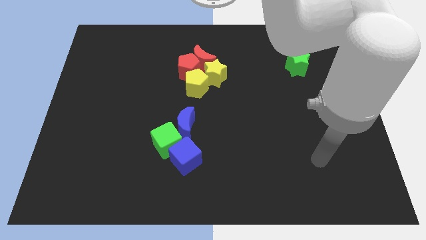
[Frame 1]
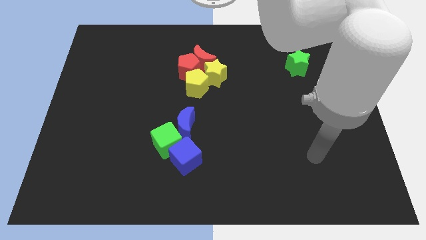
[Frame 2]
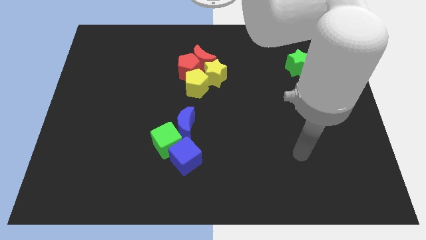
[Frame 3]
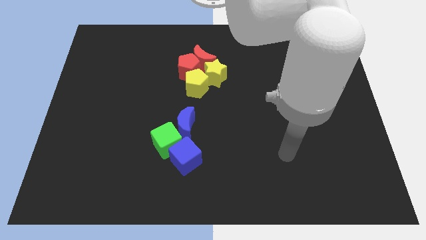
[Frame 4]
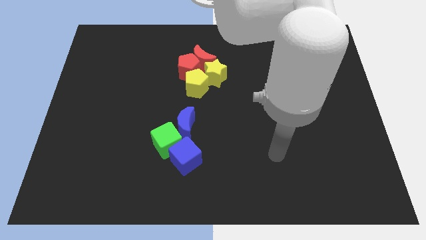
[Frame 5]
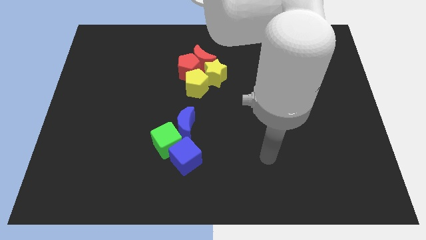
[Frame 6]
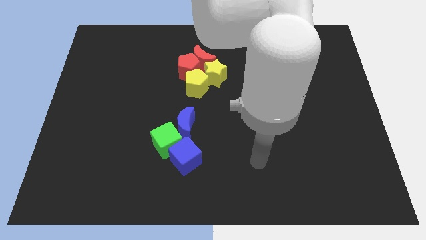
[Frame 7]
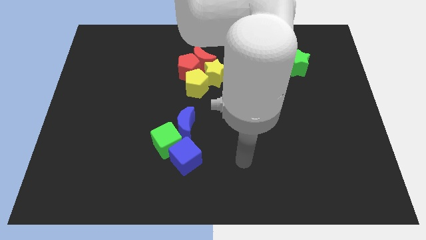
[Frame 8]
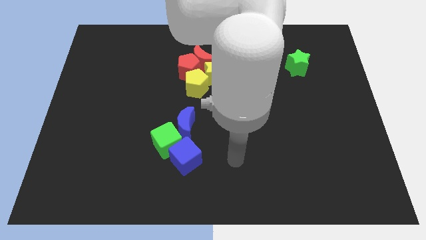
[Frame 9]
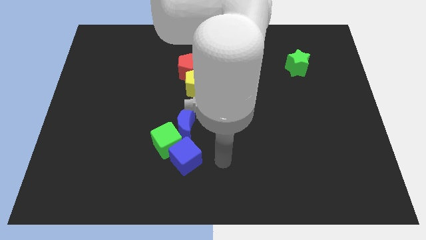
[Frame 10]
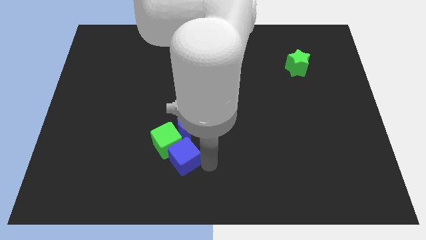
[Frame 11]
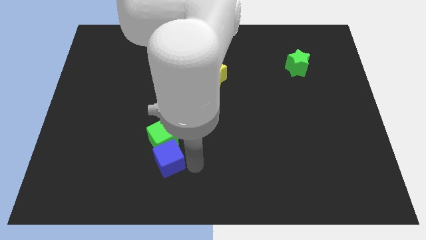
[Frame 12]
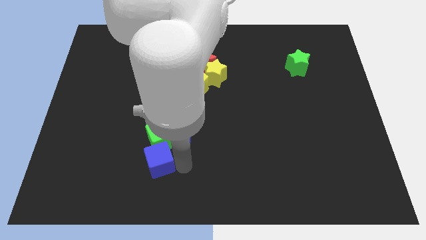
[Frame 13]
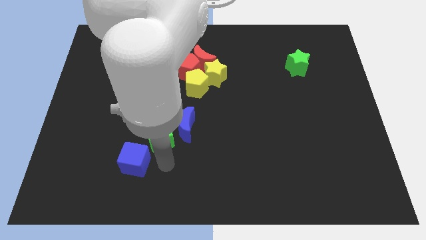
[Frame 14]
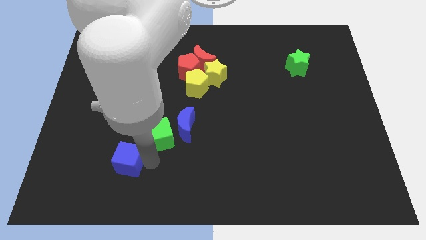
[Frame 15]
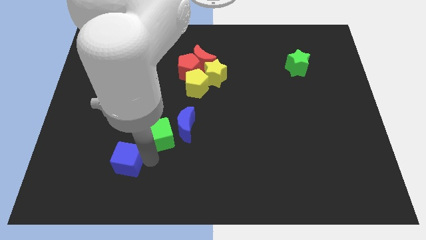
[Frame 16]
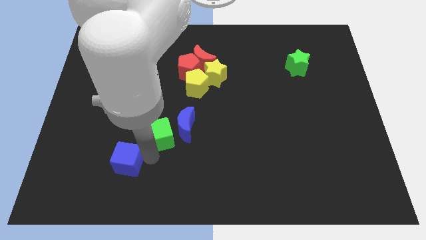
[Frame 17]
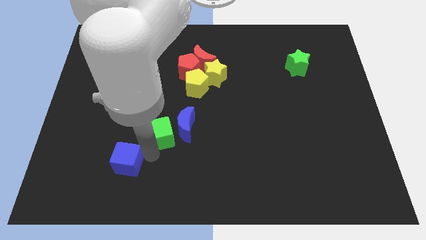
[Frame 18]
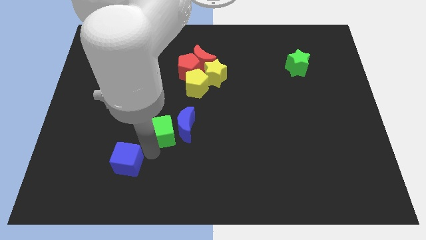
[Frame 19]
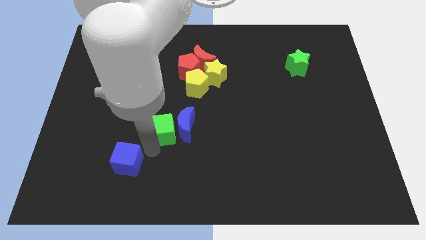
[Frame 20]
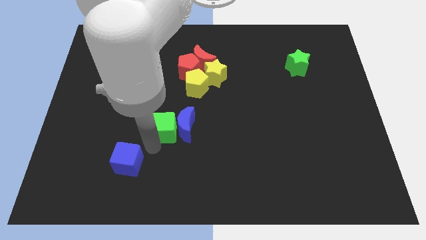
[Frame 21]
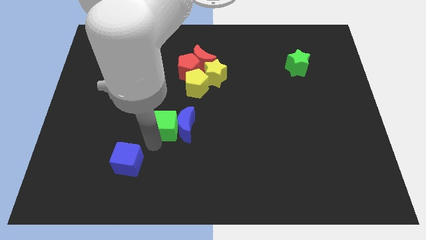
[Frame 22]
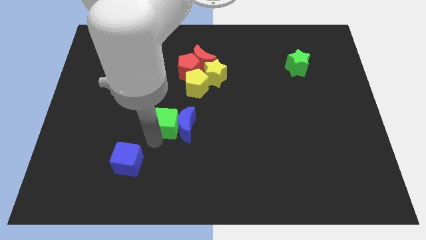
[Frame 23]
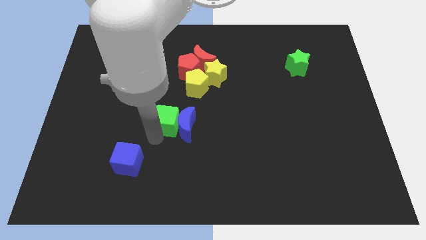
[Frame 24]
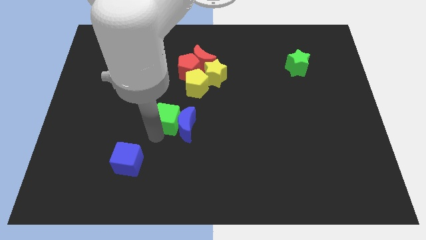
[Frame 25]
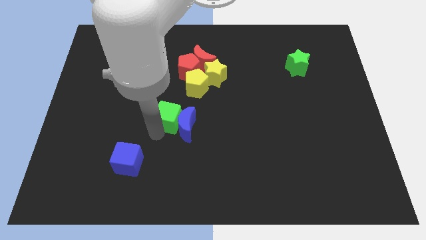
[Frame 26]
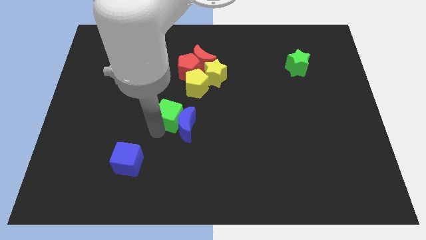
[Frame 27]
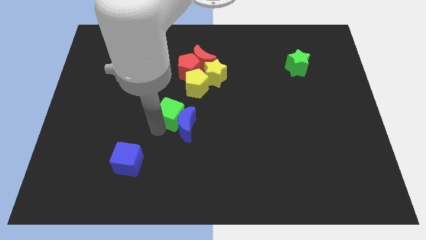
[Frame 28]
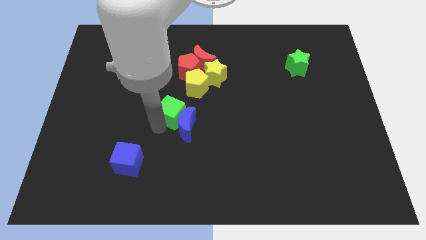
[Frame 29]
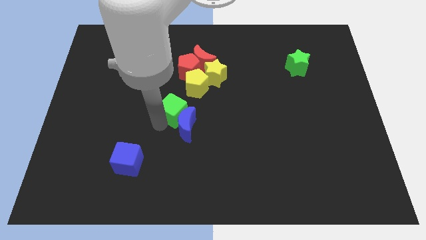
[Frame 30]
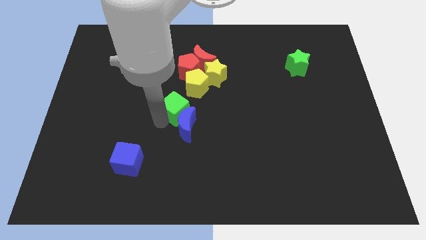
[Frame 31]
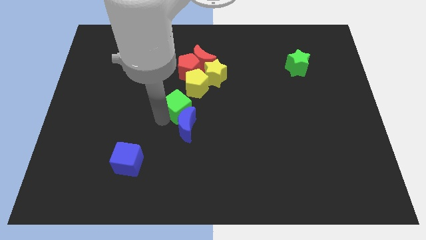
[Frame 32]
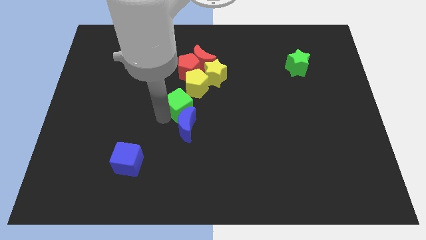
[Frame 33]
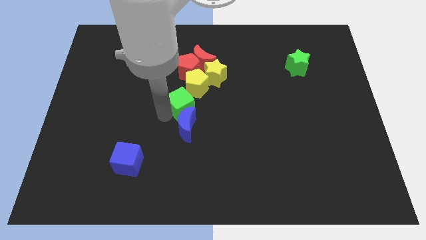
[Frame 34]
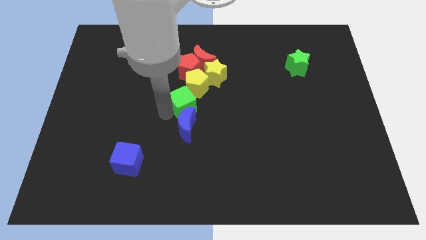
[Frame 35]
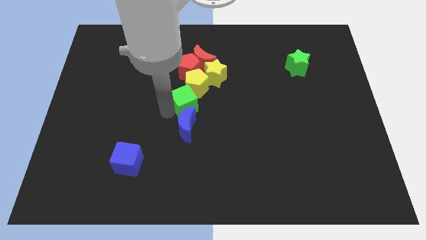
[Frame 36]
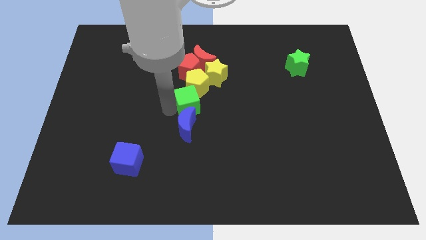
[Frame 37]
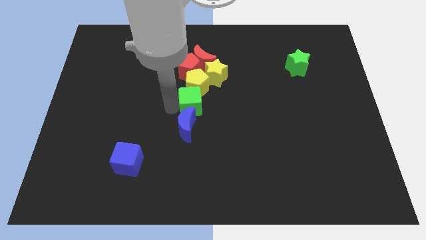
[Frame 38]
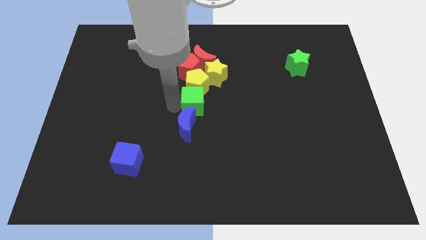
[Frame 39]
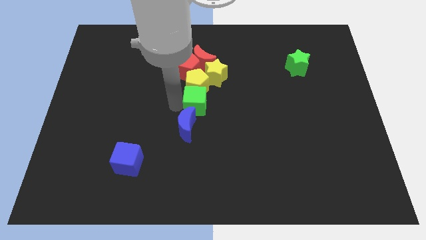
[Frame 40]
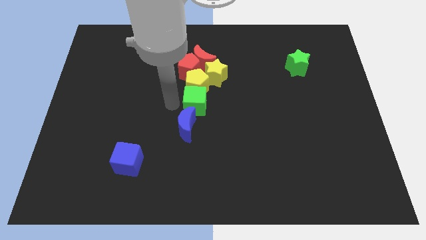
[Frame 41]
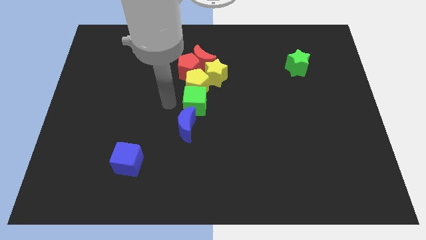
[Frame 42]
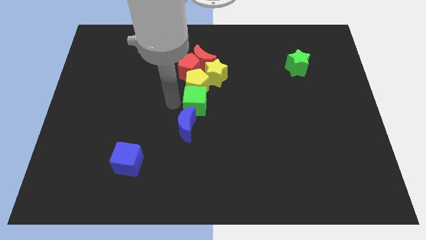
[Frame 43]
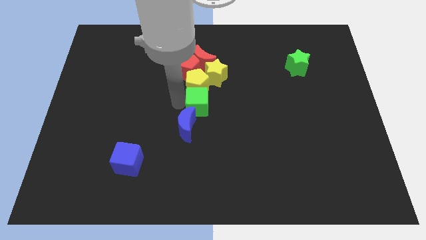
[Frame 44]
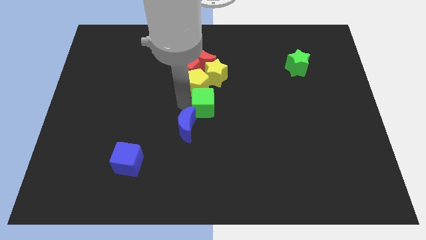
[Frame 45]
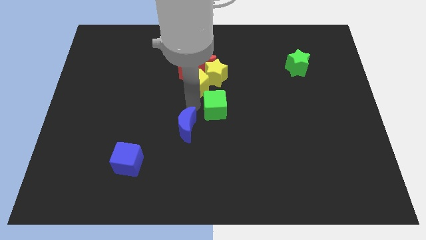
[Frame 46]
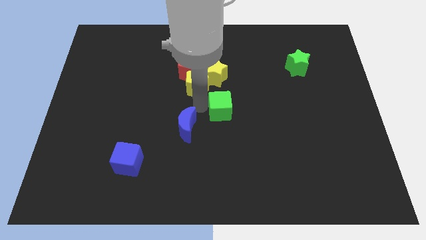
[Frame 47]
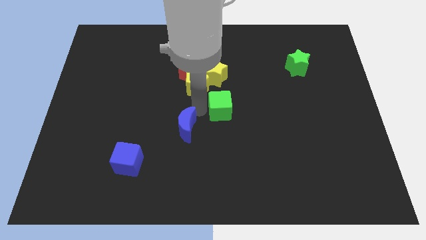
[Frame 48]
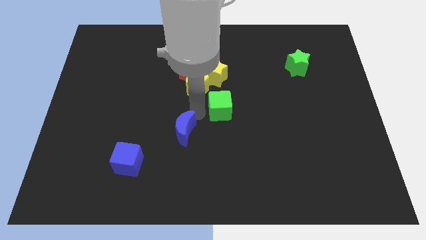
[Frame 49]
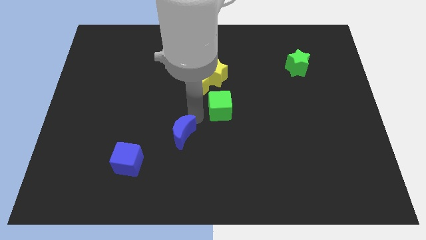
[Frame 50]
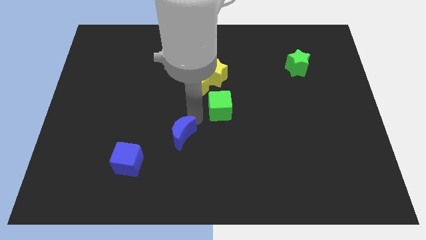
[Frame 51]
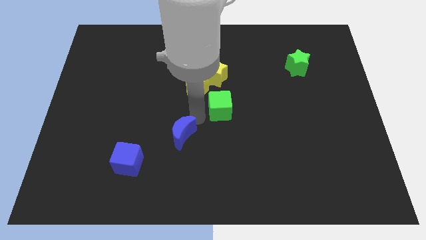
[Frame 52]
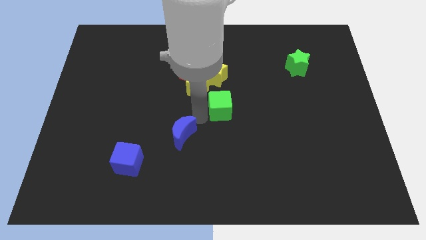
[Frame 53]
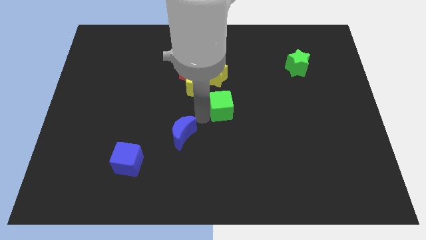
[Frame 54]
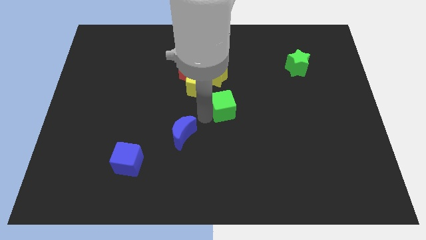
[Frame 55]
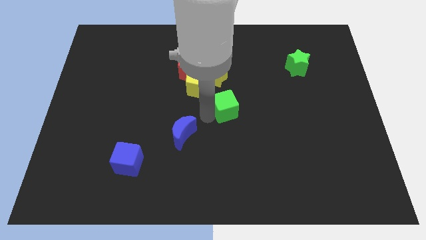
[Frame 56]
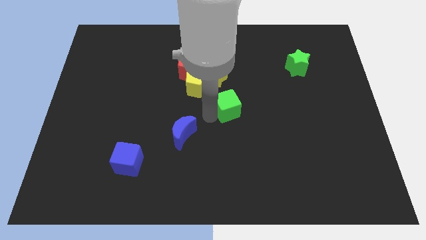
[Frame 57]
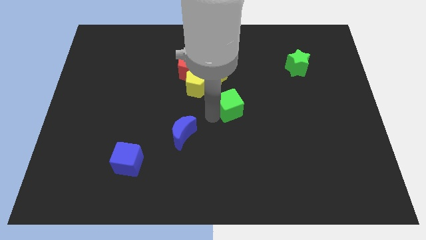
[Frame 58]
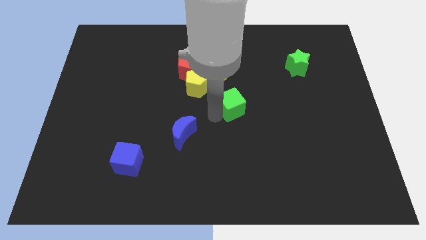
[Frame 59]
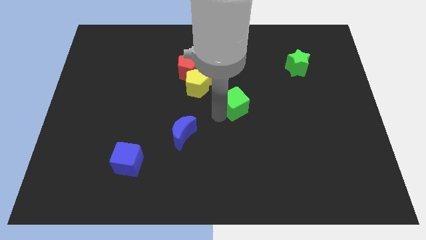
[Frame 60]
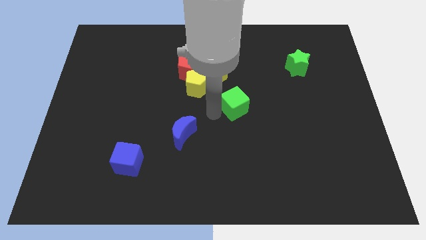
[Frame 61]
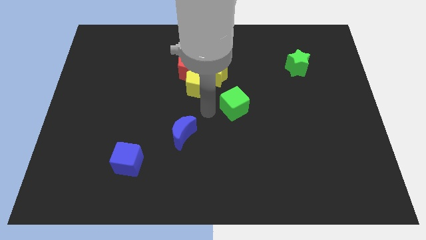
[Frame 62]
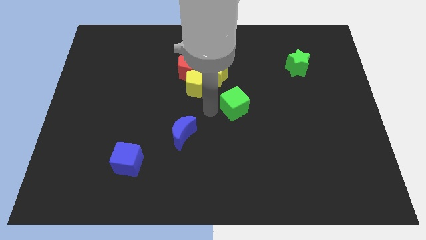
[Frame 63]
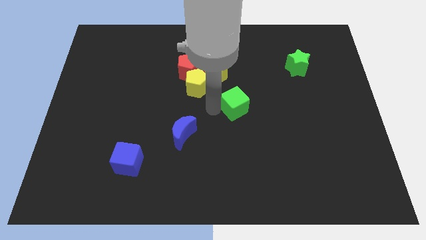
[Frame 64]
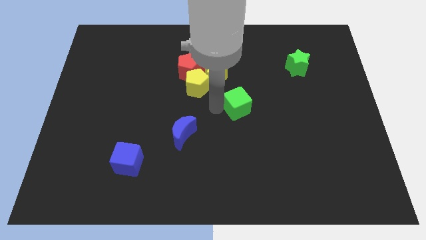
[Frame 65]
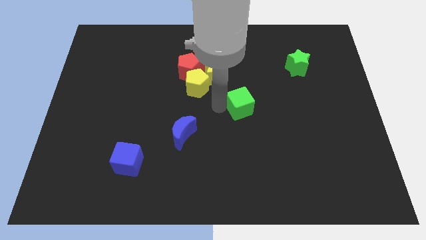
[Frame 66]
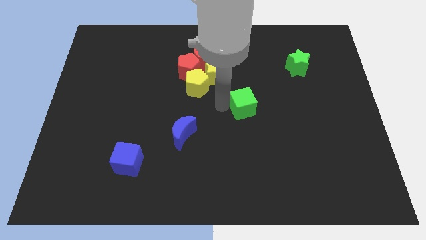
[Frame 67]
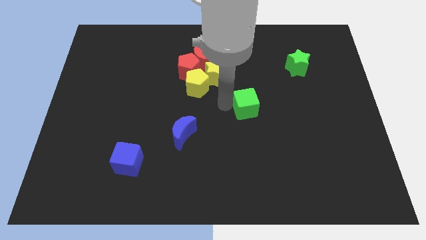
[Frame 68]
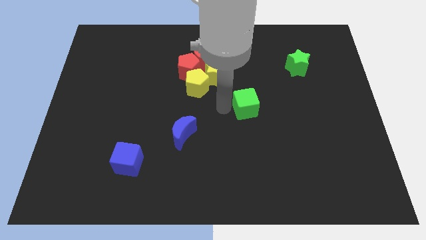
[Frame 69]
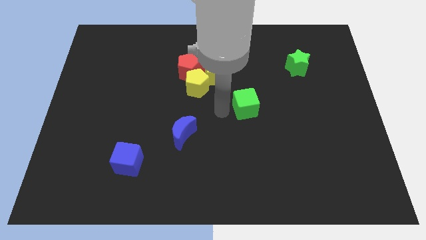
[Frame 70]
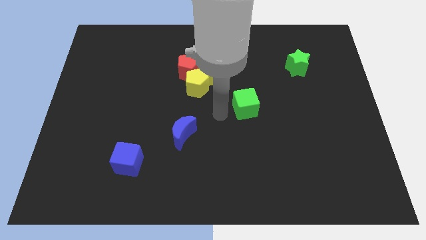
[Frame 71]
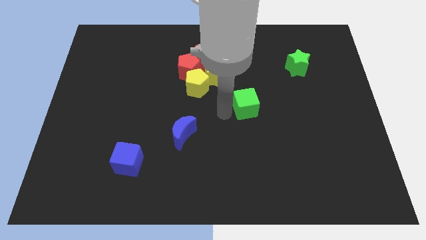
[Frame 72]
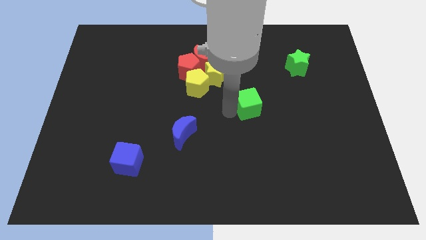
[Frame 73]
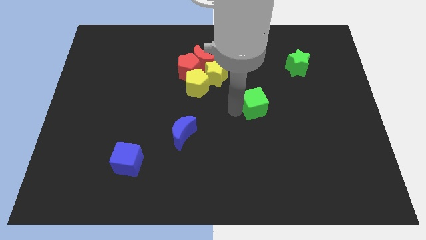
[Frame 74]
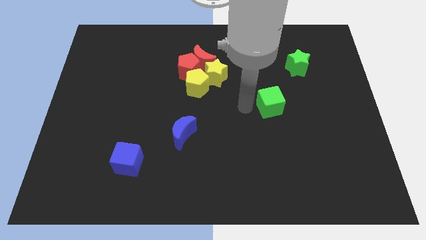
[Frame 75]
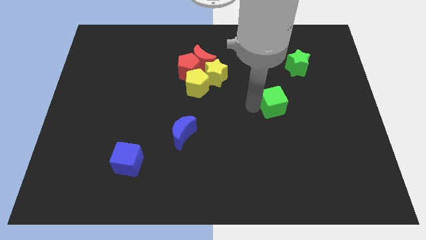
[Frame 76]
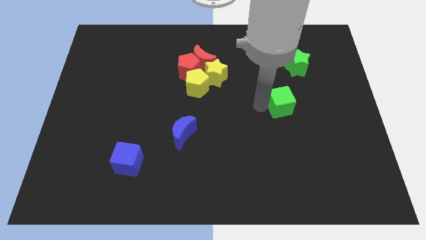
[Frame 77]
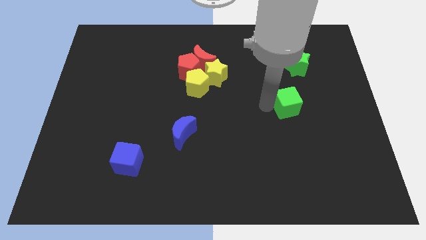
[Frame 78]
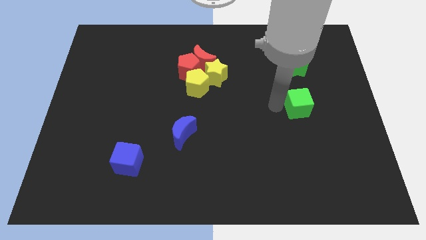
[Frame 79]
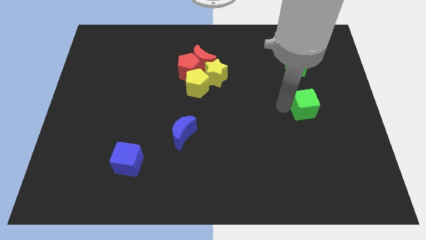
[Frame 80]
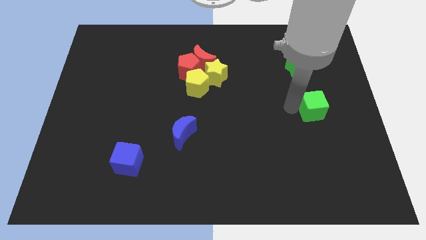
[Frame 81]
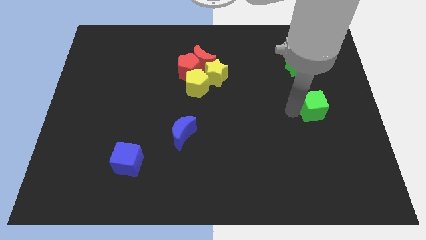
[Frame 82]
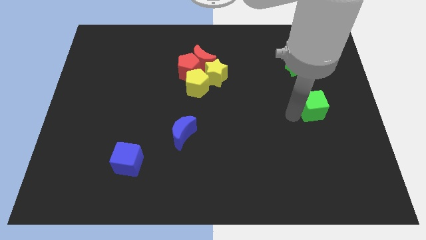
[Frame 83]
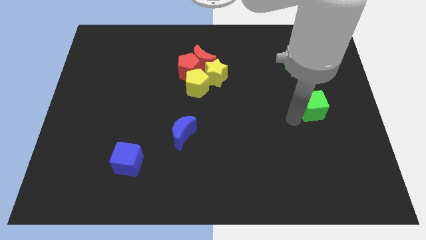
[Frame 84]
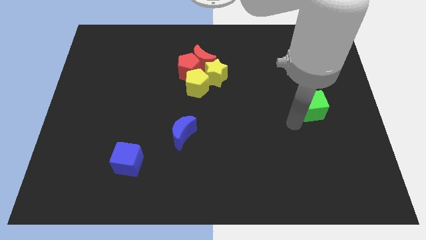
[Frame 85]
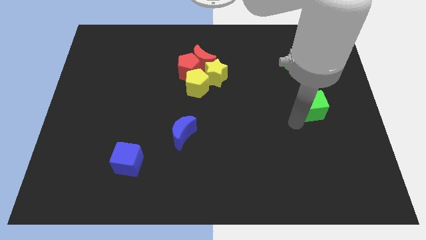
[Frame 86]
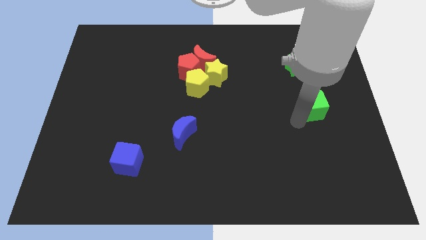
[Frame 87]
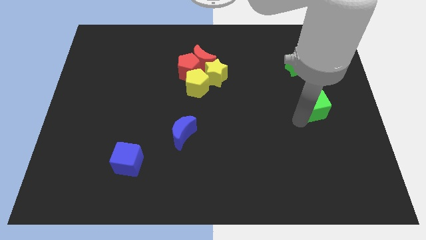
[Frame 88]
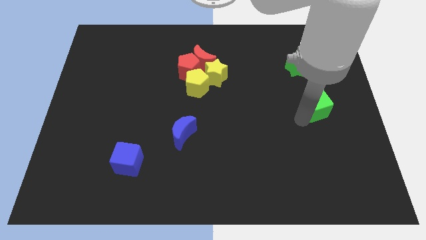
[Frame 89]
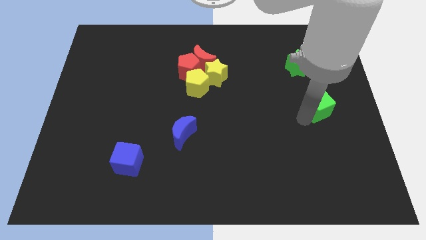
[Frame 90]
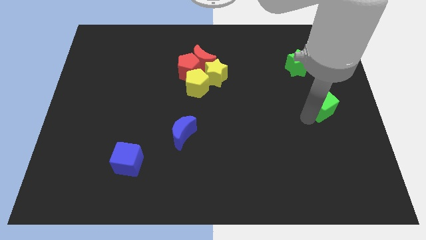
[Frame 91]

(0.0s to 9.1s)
push the green cube to the center right
